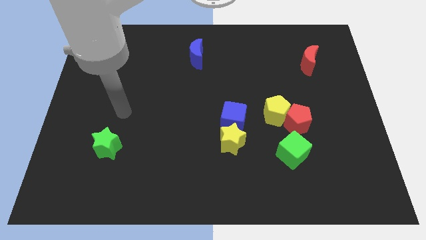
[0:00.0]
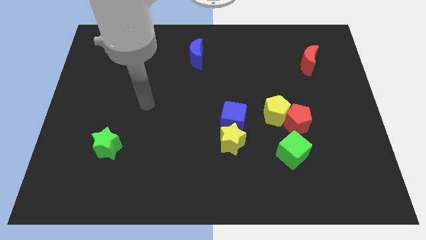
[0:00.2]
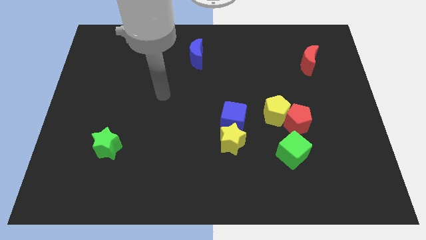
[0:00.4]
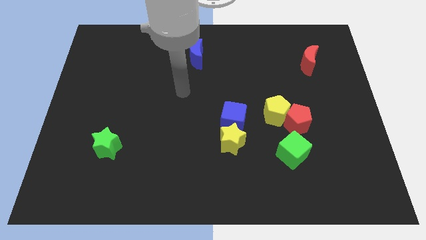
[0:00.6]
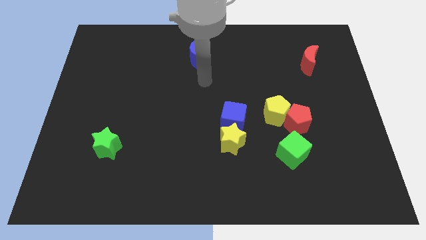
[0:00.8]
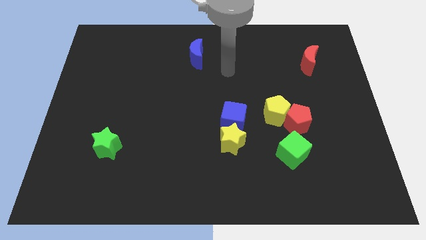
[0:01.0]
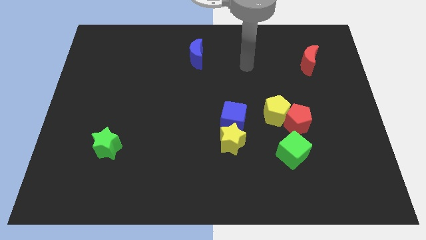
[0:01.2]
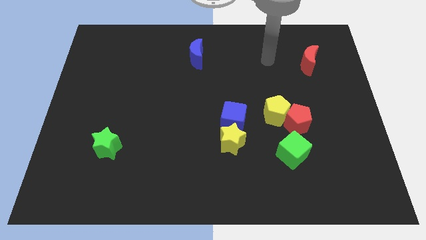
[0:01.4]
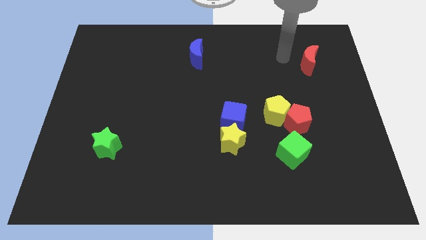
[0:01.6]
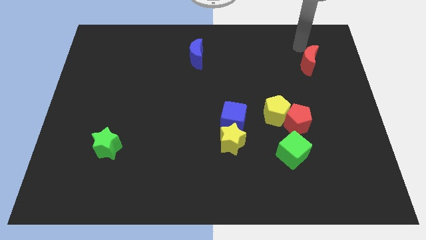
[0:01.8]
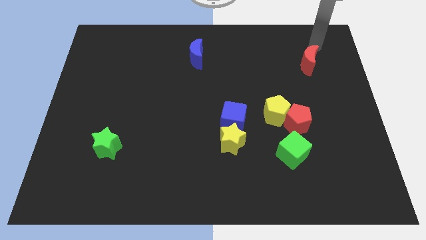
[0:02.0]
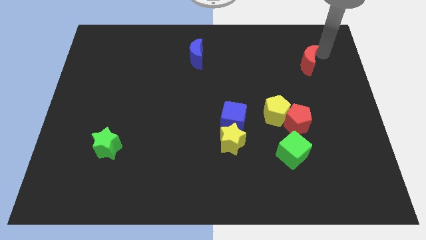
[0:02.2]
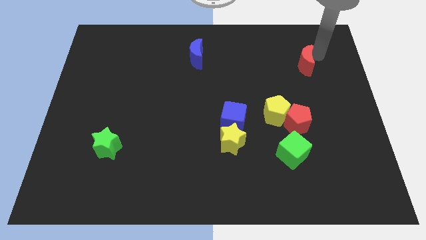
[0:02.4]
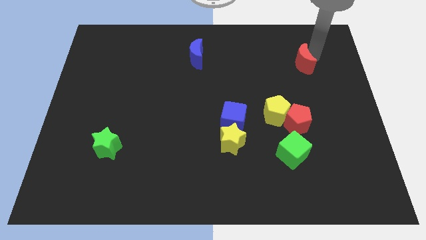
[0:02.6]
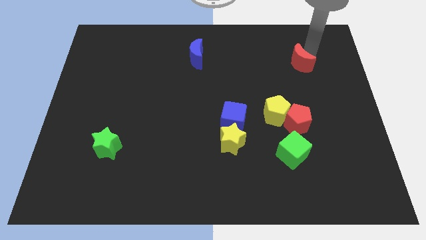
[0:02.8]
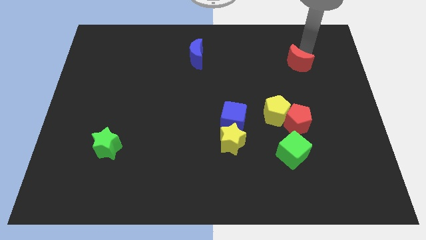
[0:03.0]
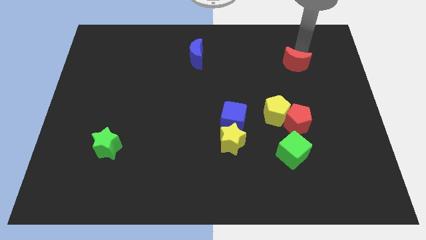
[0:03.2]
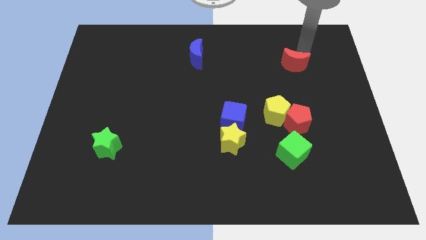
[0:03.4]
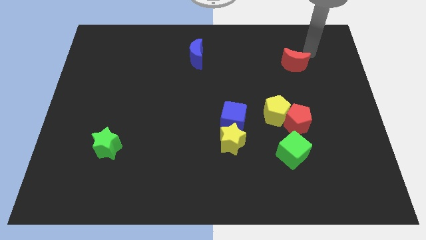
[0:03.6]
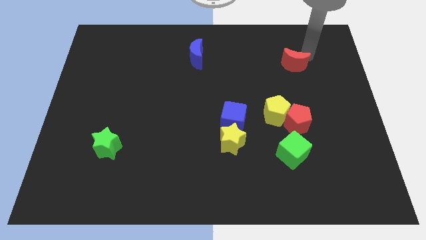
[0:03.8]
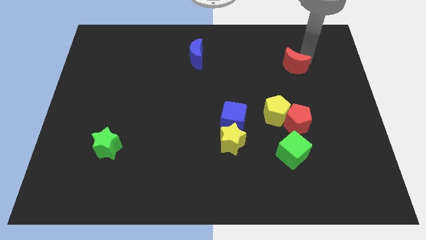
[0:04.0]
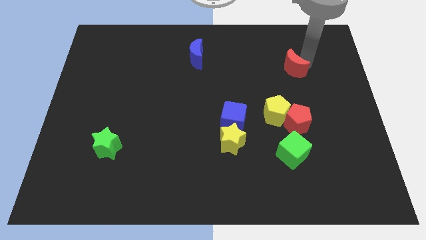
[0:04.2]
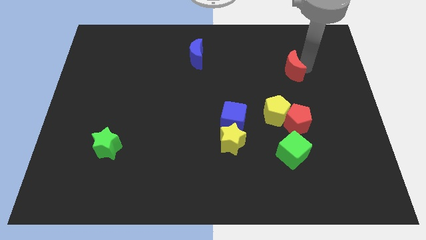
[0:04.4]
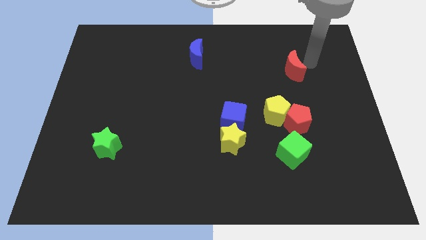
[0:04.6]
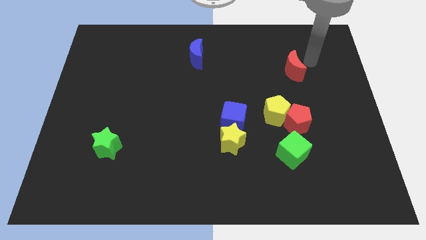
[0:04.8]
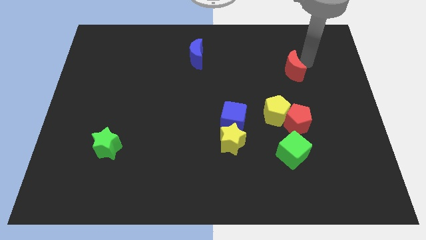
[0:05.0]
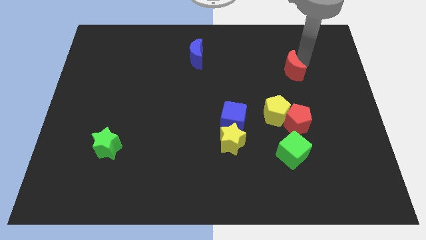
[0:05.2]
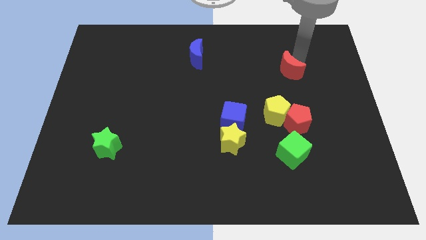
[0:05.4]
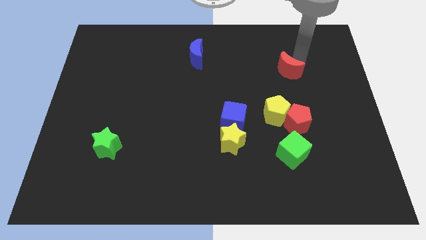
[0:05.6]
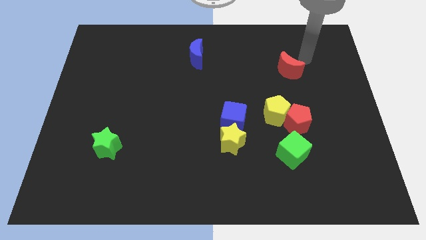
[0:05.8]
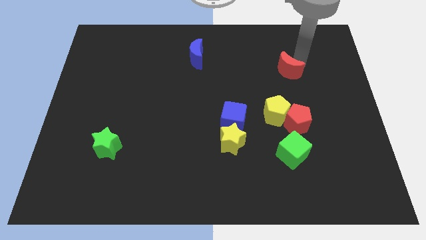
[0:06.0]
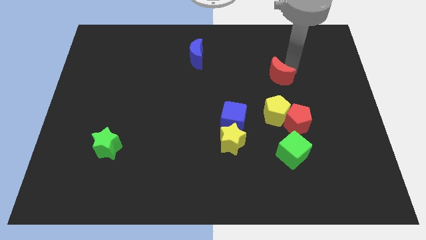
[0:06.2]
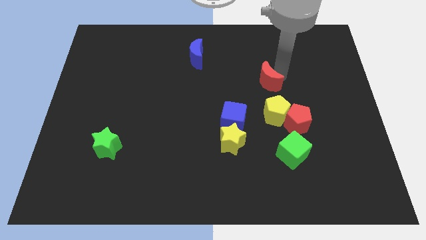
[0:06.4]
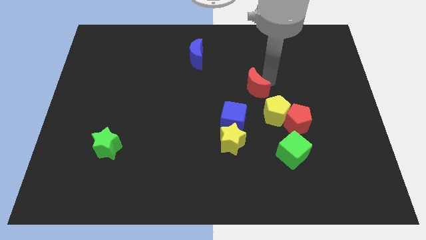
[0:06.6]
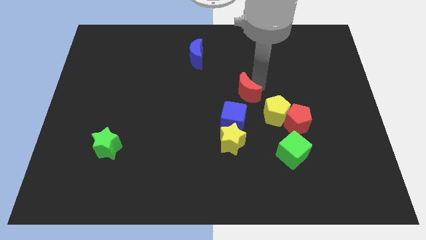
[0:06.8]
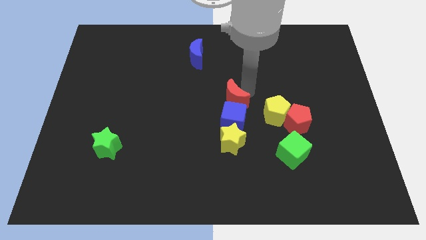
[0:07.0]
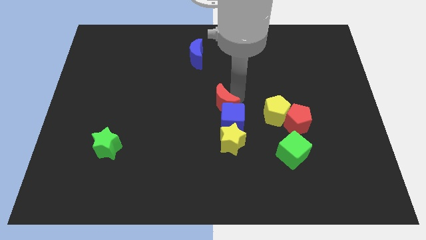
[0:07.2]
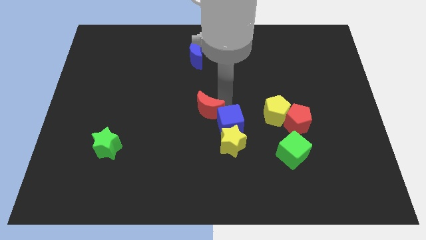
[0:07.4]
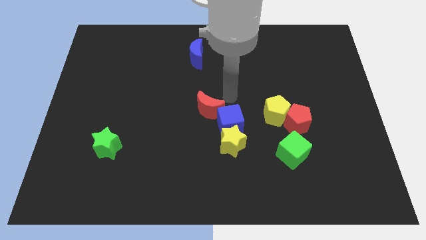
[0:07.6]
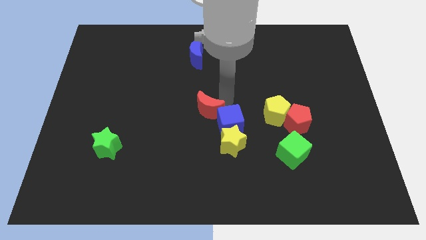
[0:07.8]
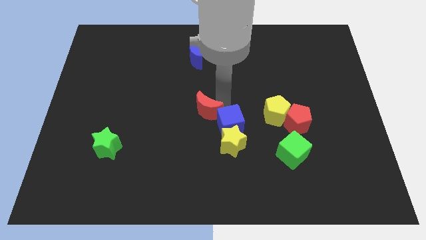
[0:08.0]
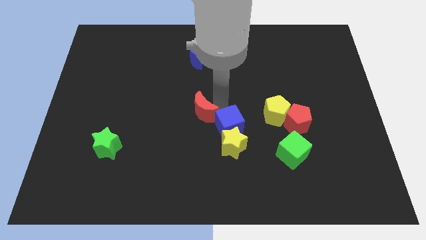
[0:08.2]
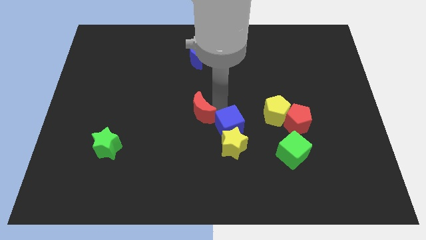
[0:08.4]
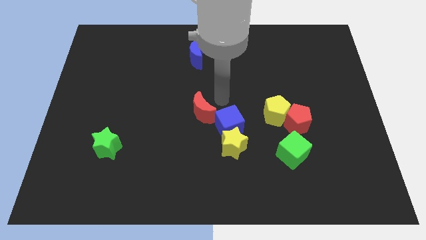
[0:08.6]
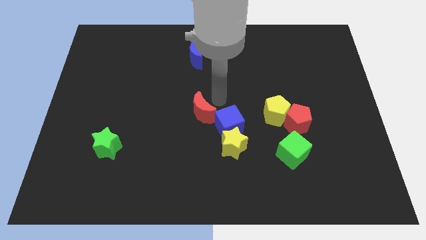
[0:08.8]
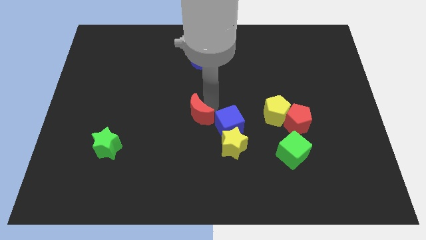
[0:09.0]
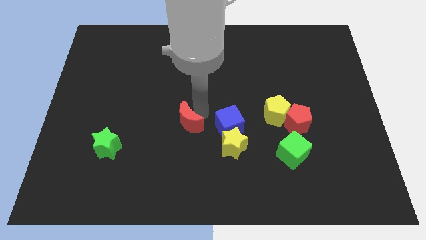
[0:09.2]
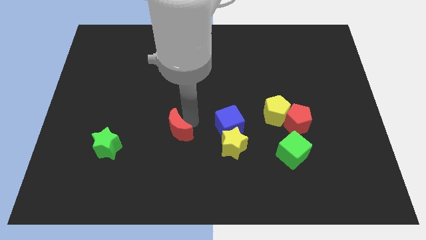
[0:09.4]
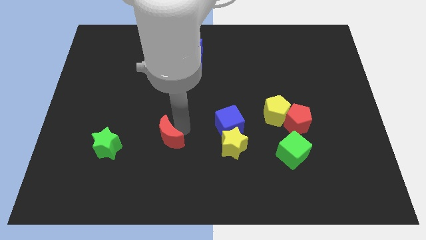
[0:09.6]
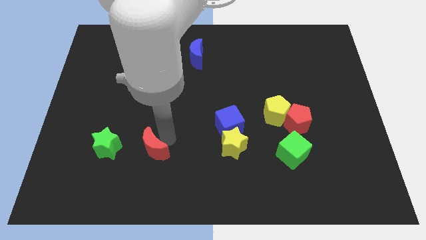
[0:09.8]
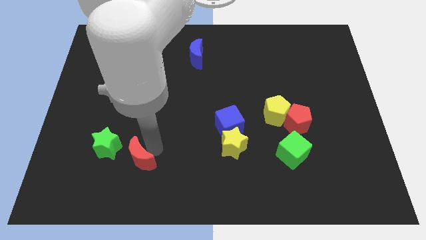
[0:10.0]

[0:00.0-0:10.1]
push the red moon to the bottom right side of the green star
